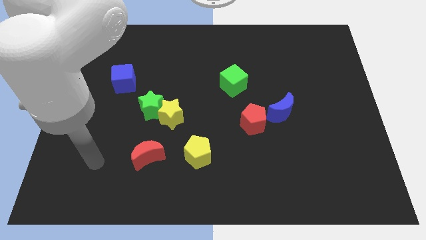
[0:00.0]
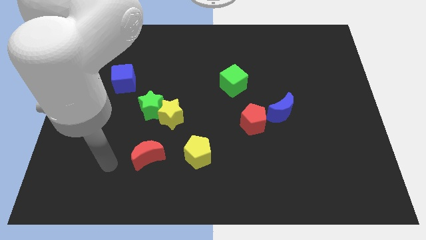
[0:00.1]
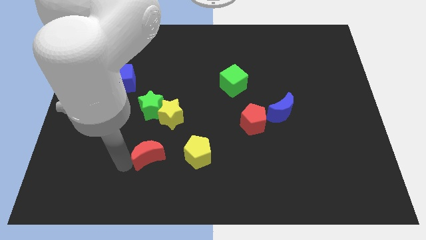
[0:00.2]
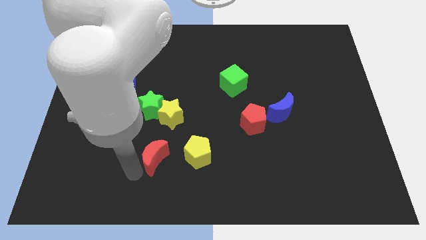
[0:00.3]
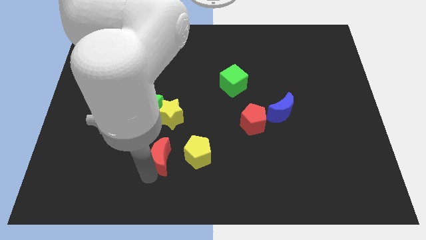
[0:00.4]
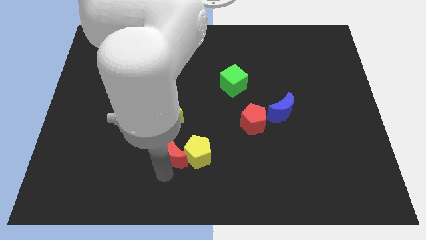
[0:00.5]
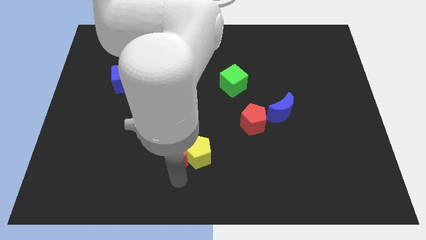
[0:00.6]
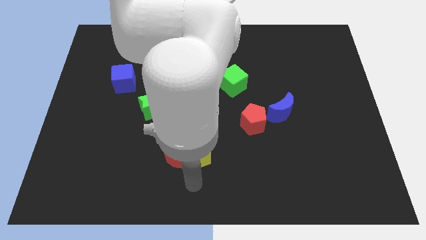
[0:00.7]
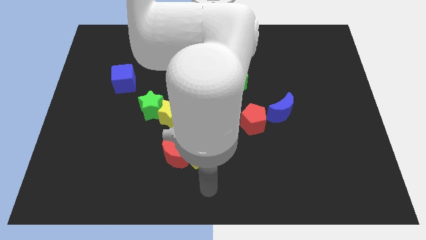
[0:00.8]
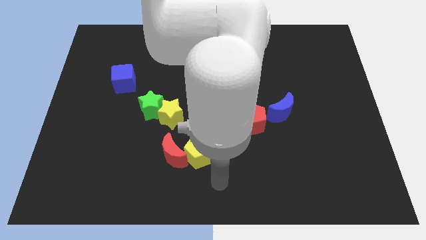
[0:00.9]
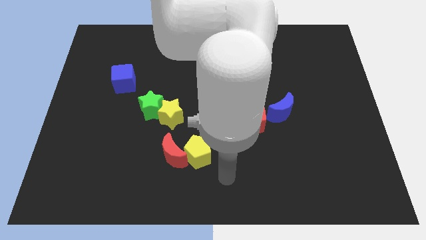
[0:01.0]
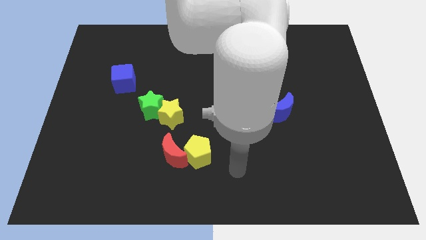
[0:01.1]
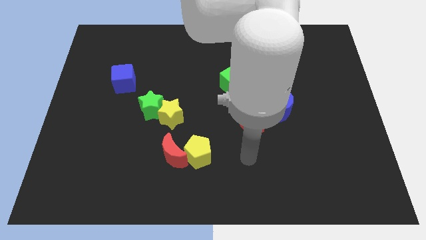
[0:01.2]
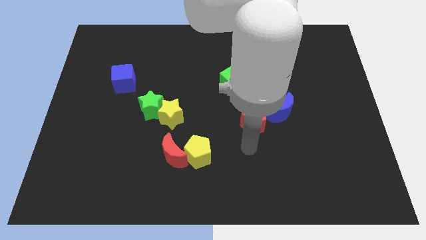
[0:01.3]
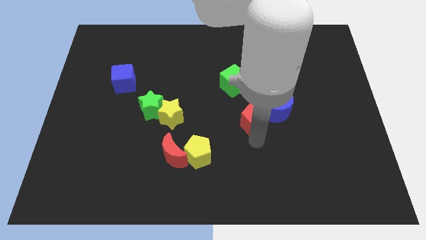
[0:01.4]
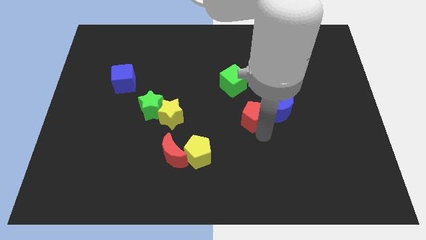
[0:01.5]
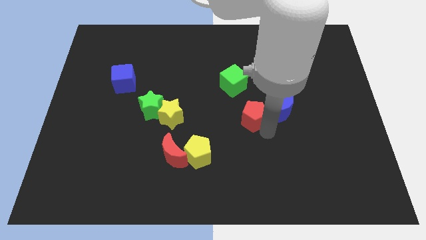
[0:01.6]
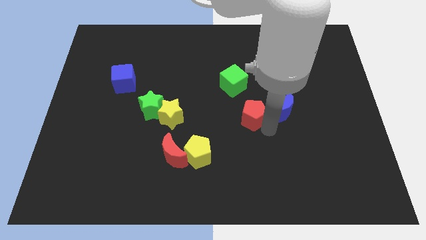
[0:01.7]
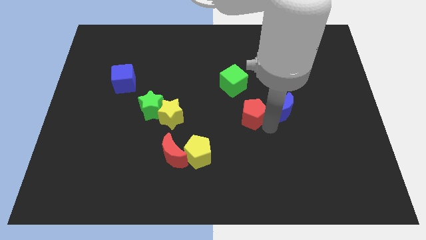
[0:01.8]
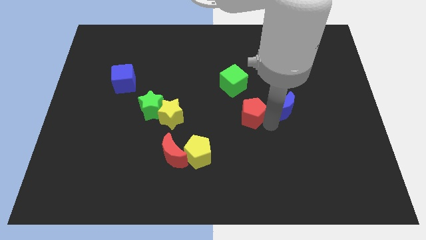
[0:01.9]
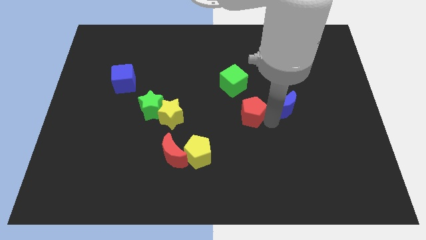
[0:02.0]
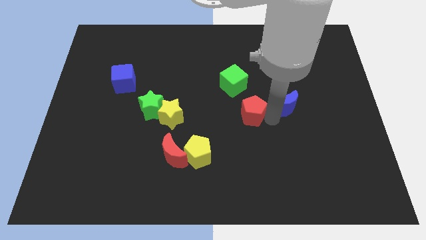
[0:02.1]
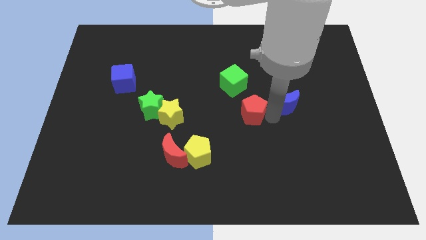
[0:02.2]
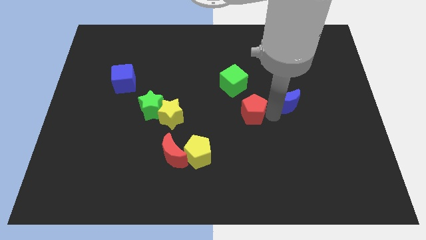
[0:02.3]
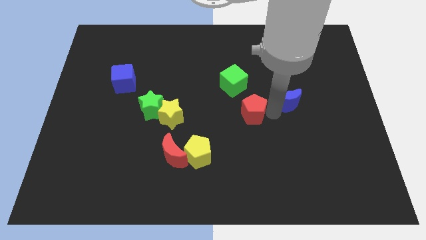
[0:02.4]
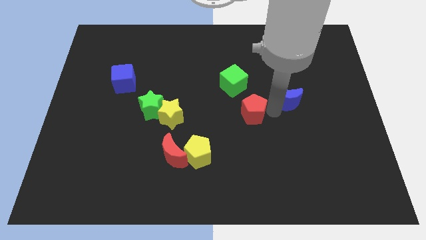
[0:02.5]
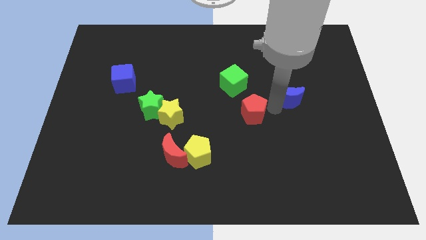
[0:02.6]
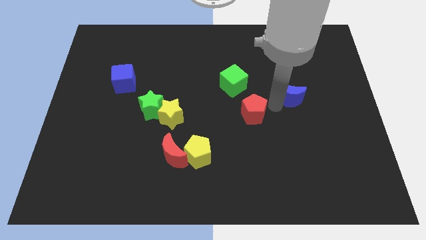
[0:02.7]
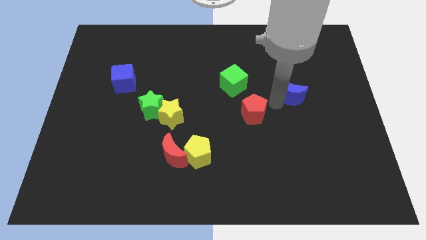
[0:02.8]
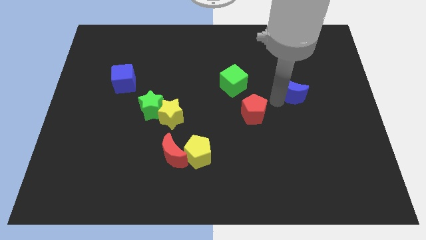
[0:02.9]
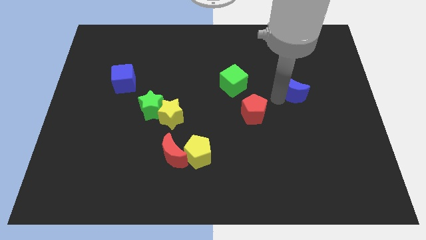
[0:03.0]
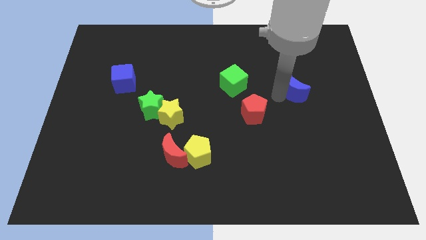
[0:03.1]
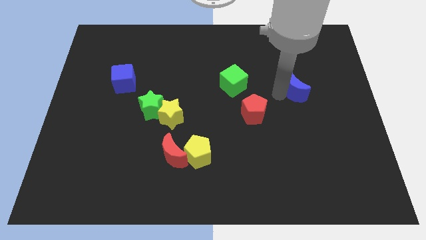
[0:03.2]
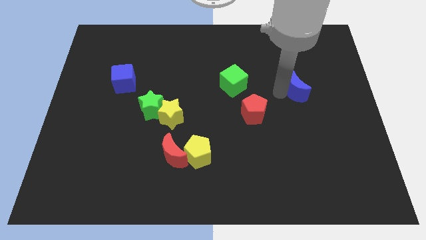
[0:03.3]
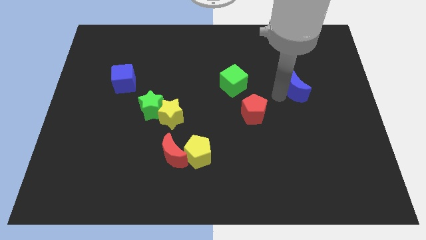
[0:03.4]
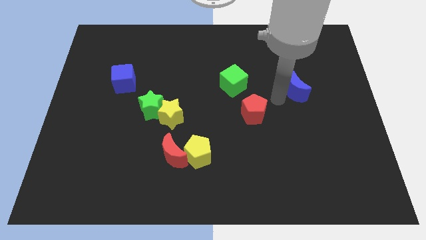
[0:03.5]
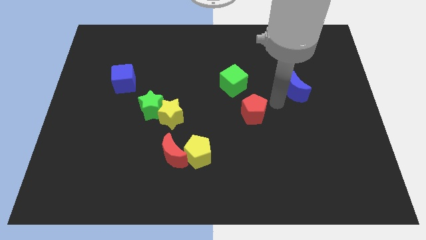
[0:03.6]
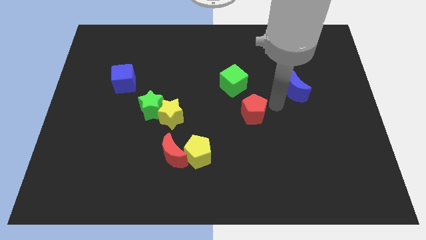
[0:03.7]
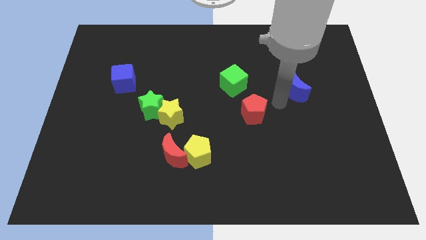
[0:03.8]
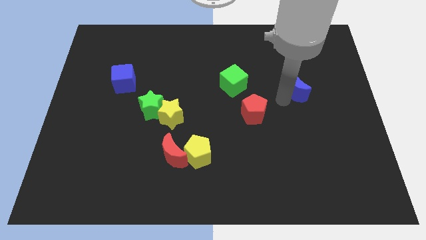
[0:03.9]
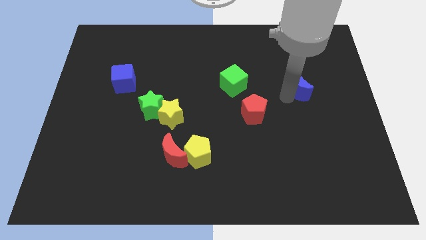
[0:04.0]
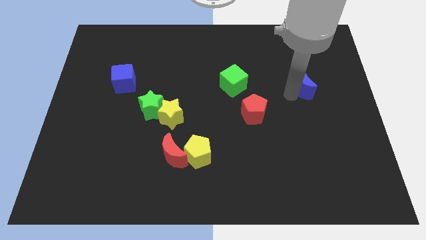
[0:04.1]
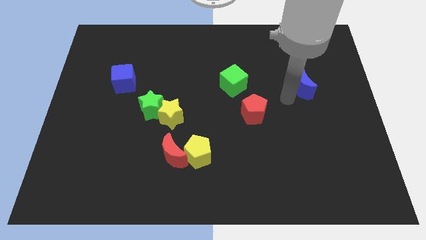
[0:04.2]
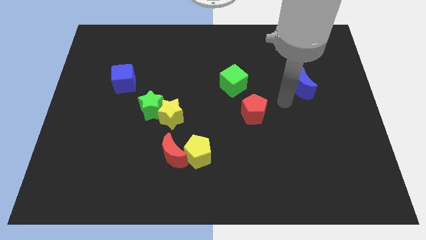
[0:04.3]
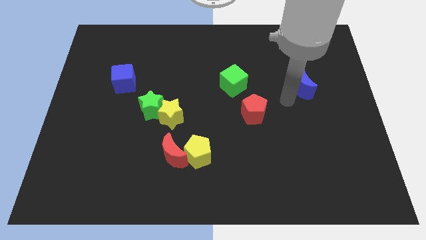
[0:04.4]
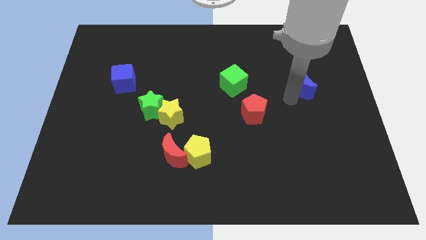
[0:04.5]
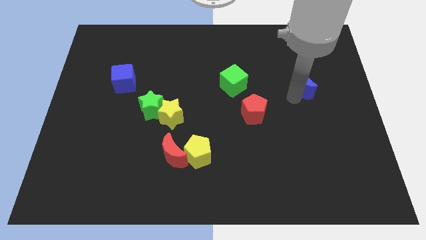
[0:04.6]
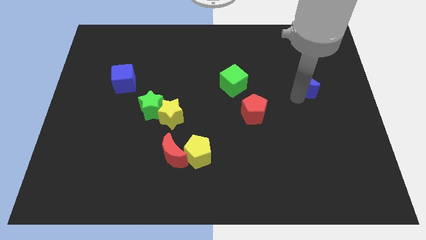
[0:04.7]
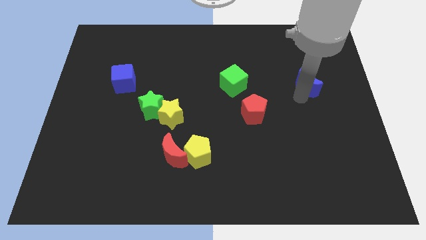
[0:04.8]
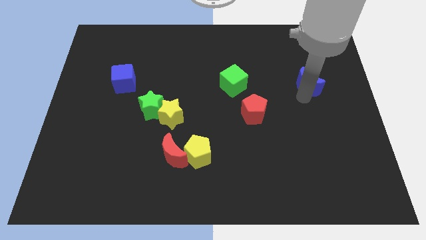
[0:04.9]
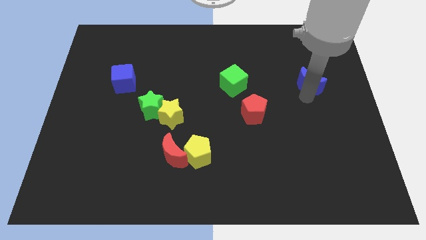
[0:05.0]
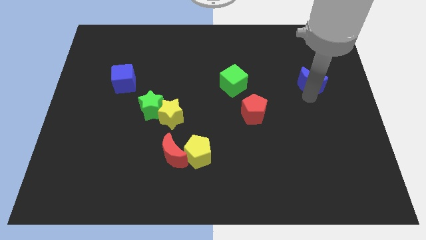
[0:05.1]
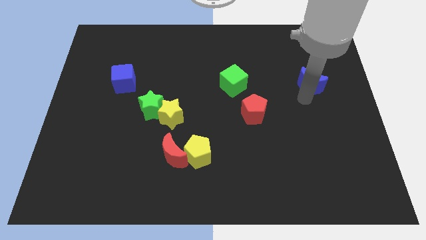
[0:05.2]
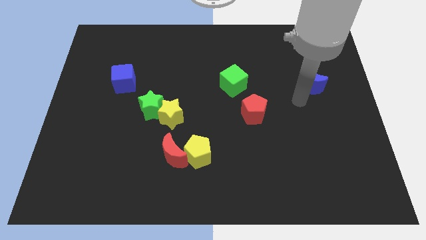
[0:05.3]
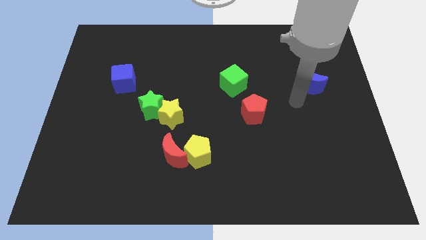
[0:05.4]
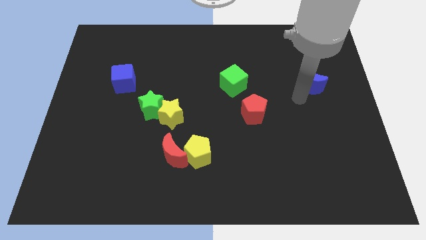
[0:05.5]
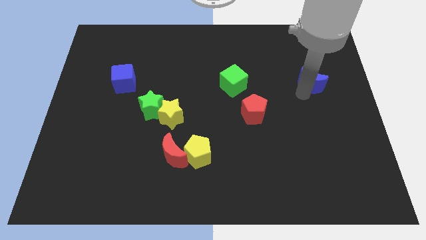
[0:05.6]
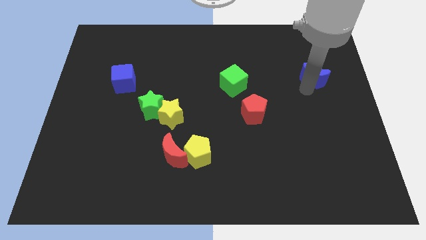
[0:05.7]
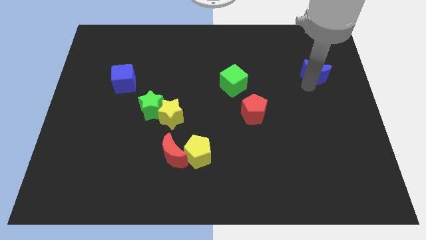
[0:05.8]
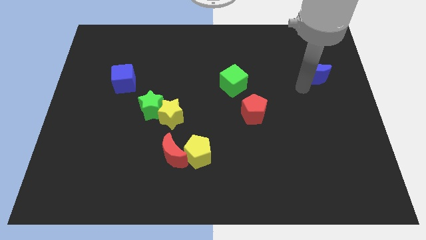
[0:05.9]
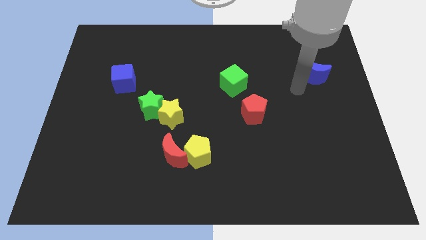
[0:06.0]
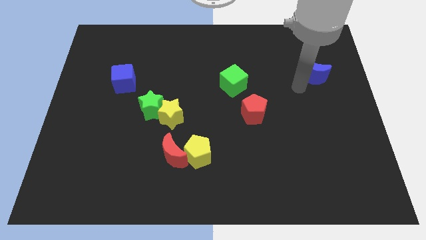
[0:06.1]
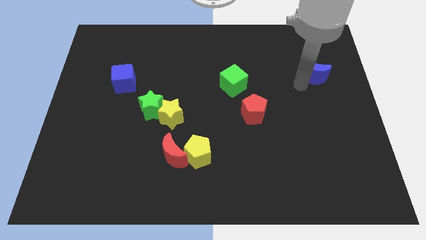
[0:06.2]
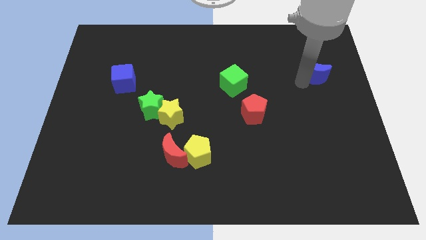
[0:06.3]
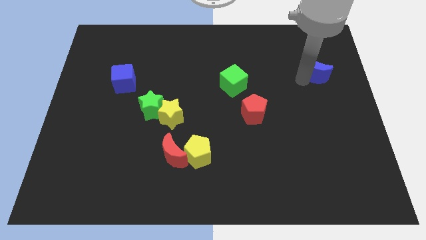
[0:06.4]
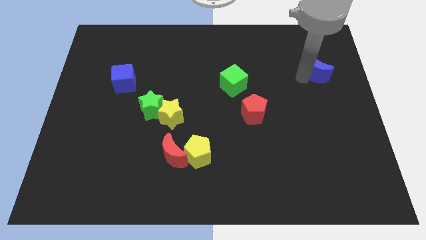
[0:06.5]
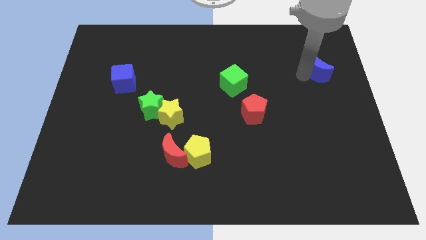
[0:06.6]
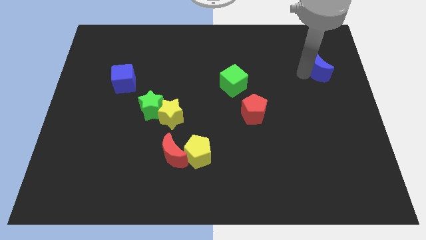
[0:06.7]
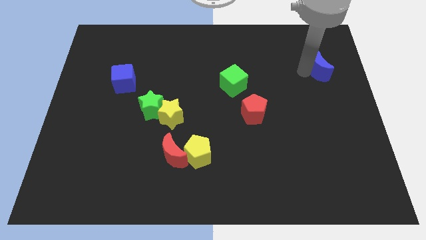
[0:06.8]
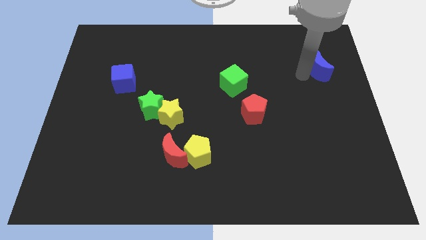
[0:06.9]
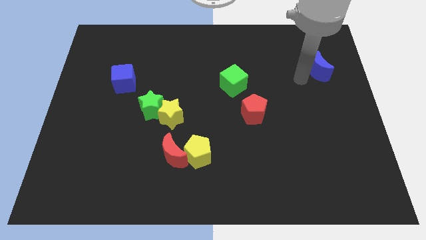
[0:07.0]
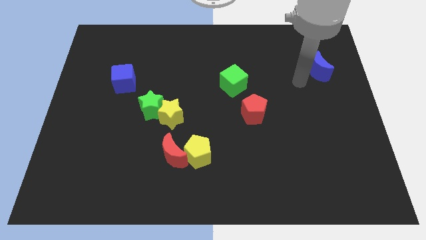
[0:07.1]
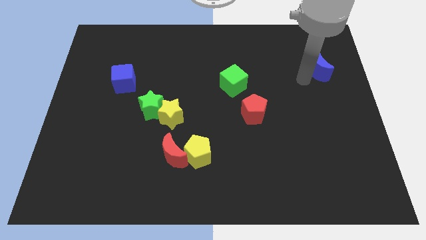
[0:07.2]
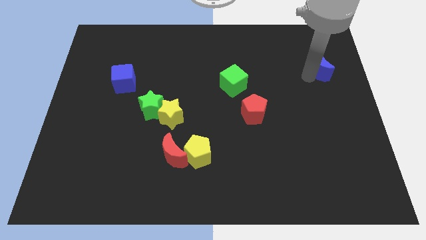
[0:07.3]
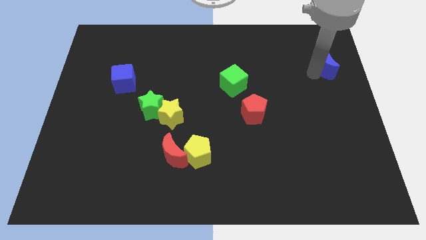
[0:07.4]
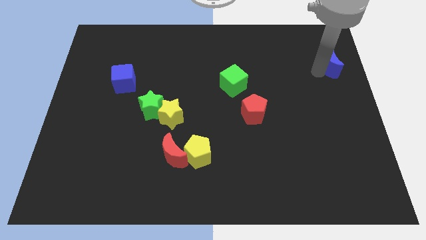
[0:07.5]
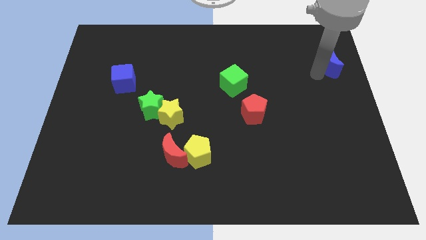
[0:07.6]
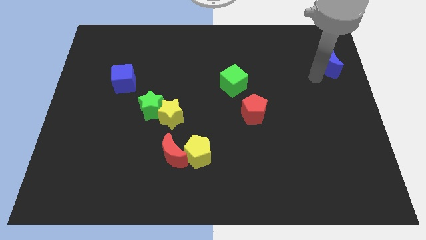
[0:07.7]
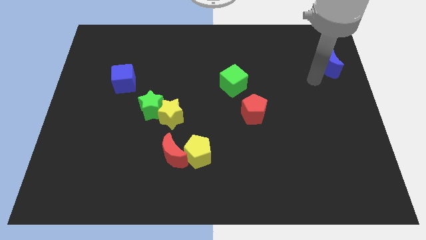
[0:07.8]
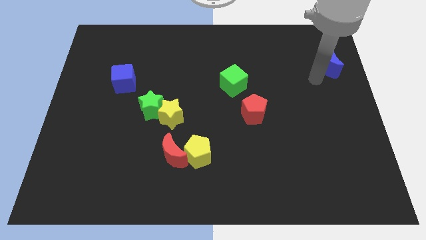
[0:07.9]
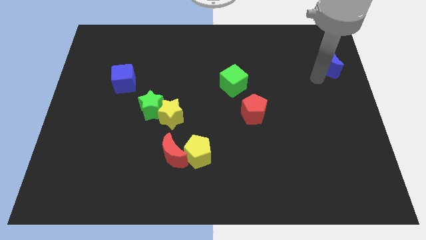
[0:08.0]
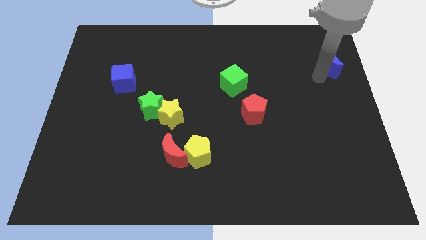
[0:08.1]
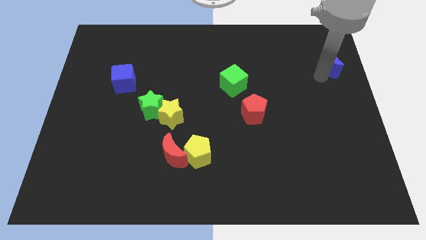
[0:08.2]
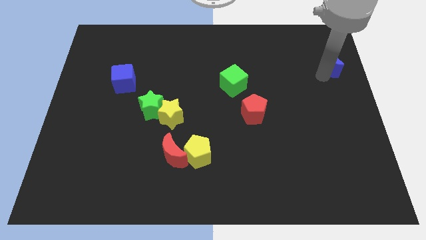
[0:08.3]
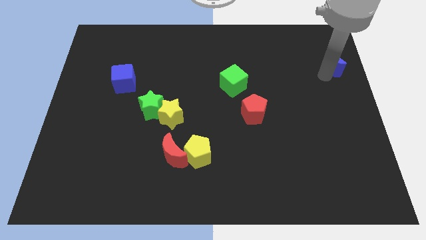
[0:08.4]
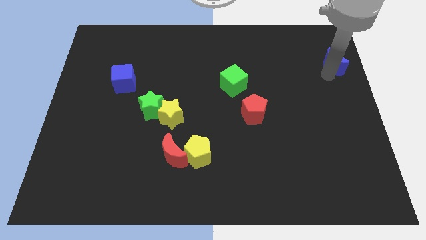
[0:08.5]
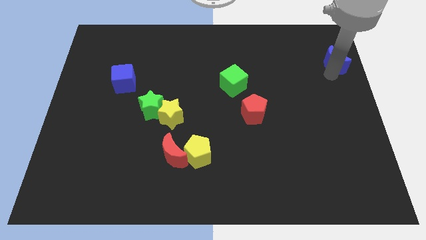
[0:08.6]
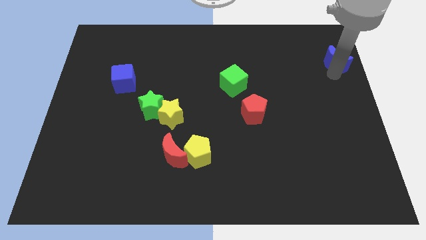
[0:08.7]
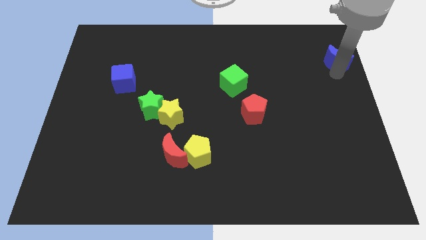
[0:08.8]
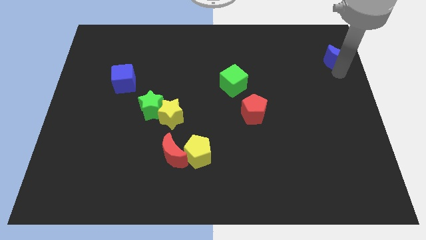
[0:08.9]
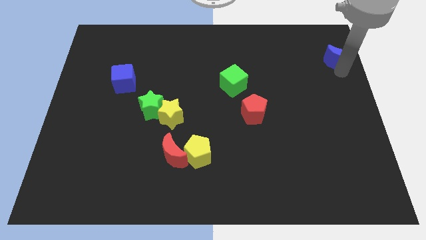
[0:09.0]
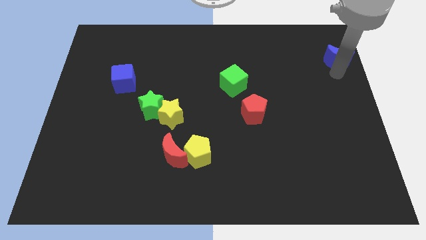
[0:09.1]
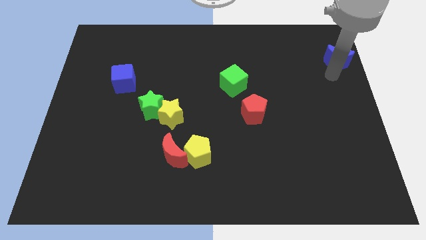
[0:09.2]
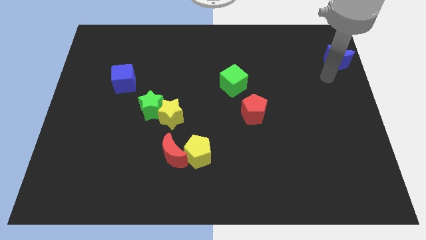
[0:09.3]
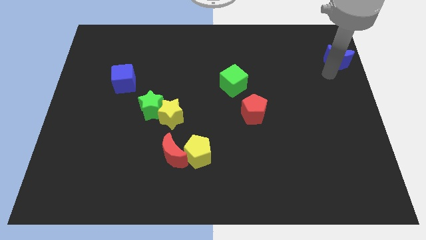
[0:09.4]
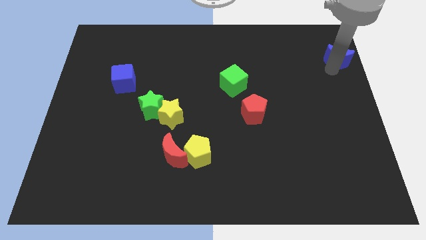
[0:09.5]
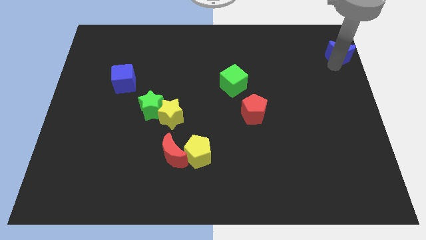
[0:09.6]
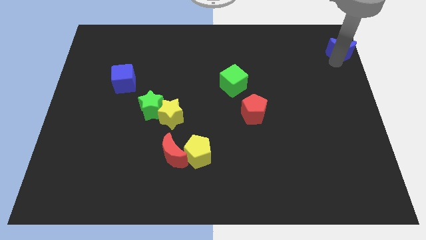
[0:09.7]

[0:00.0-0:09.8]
move the blue moon to the top right corner
